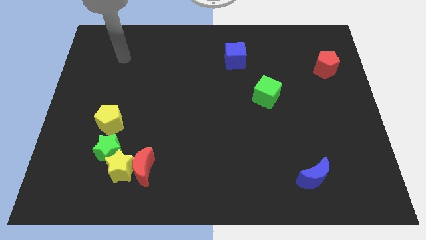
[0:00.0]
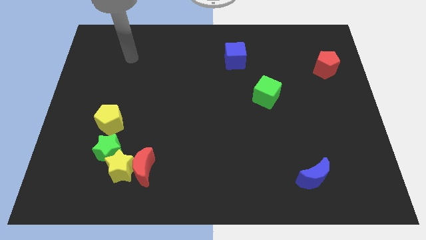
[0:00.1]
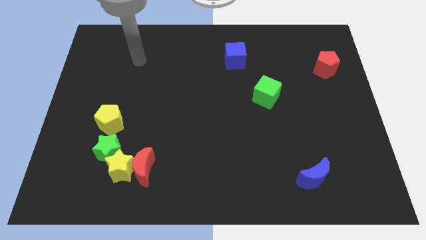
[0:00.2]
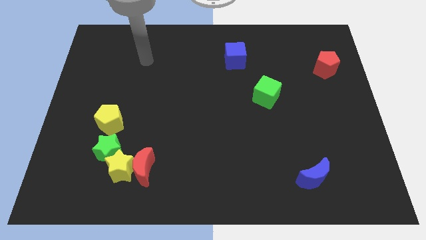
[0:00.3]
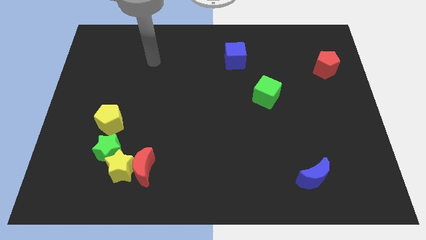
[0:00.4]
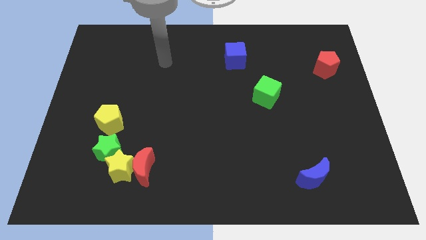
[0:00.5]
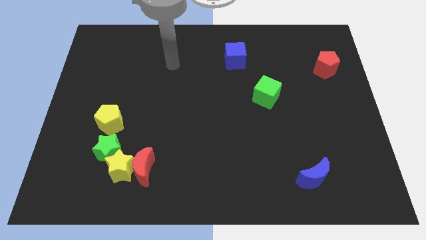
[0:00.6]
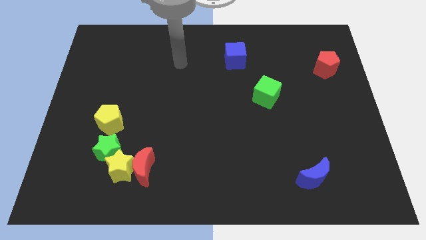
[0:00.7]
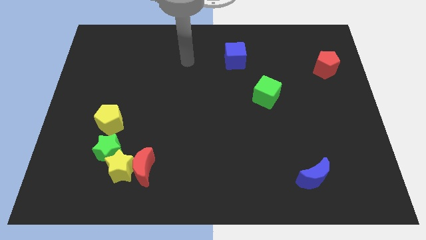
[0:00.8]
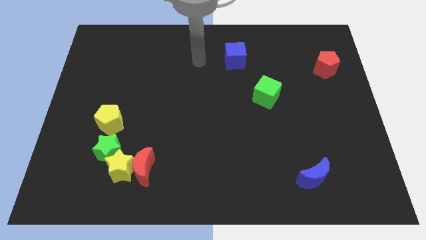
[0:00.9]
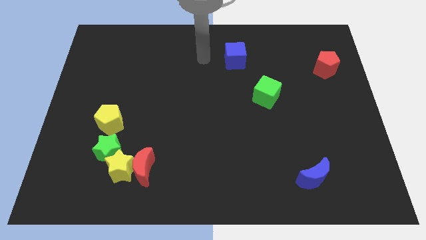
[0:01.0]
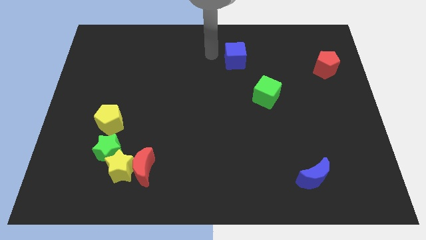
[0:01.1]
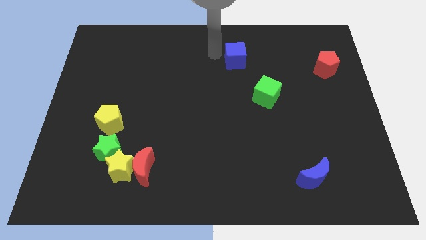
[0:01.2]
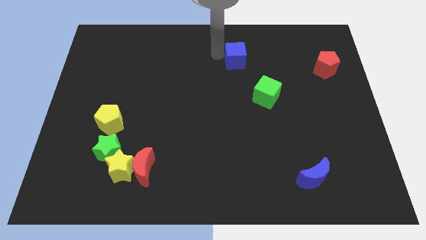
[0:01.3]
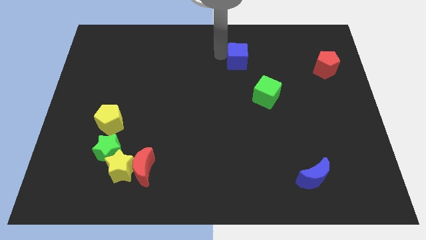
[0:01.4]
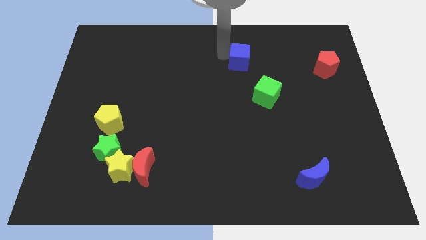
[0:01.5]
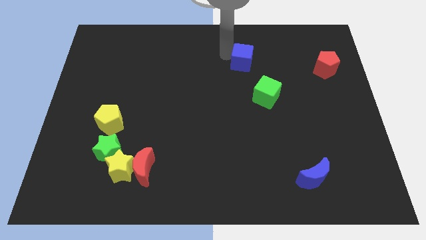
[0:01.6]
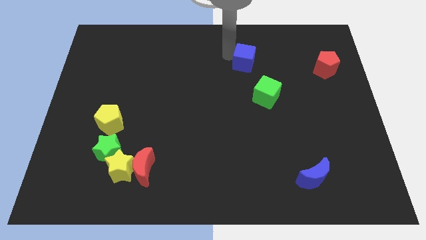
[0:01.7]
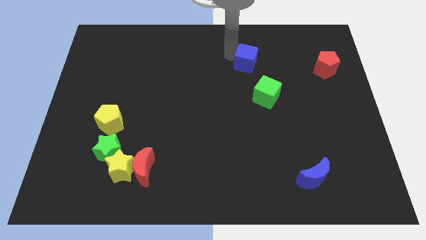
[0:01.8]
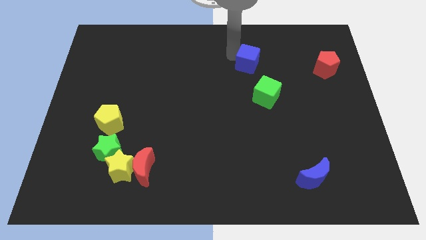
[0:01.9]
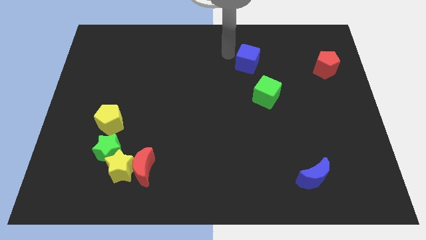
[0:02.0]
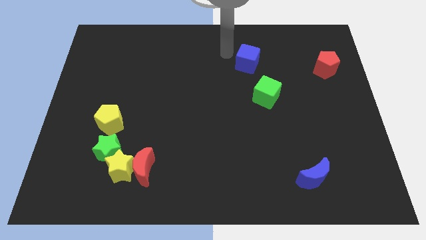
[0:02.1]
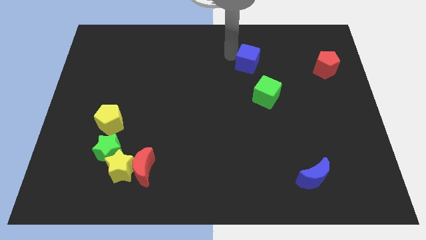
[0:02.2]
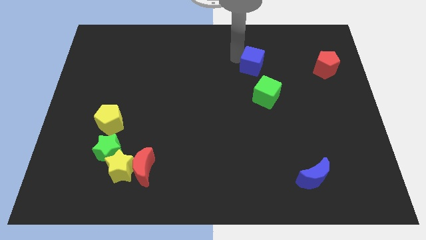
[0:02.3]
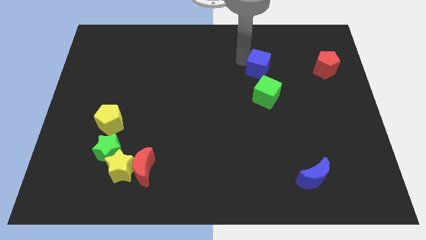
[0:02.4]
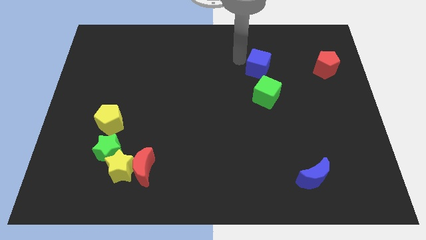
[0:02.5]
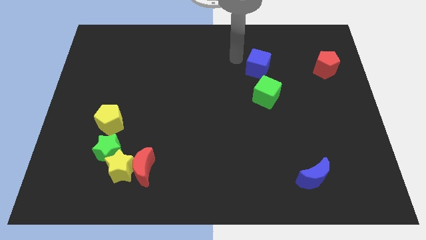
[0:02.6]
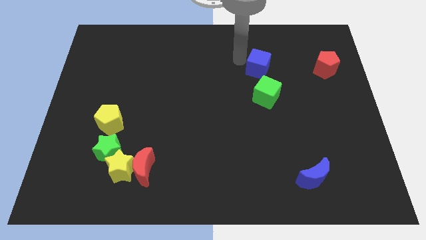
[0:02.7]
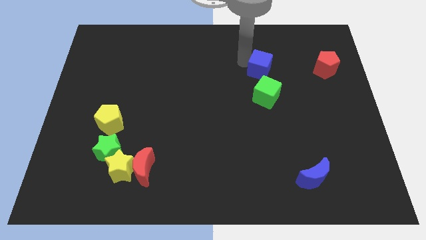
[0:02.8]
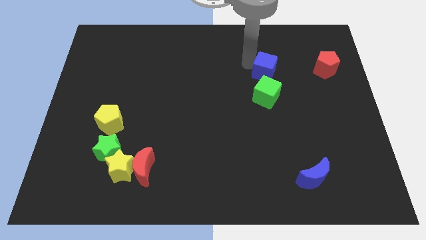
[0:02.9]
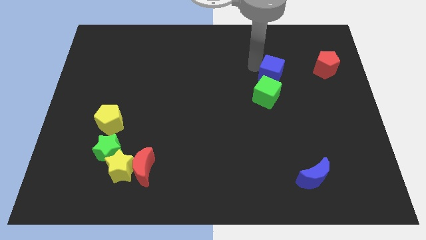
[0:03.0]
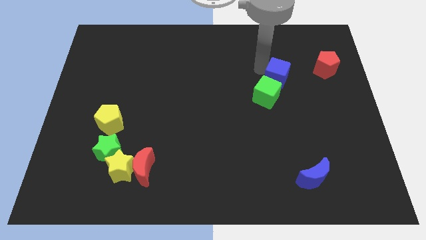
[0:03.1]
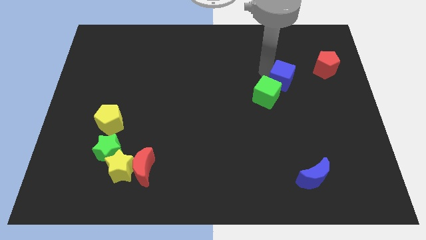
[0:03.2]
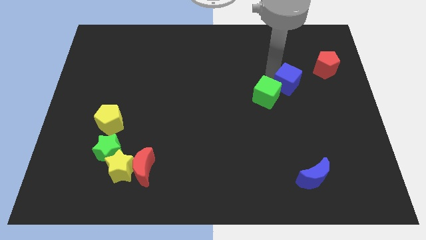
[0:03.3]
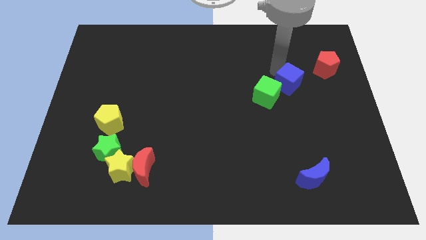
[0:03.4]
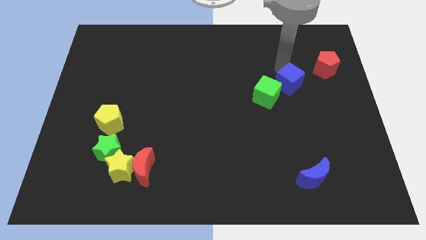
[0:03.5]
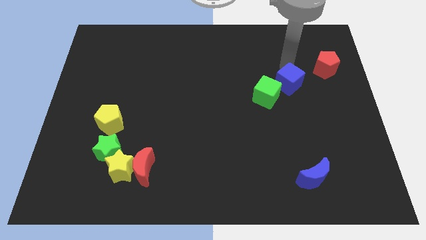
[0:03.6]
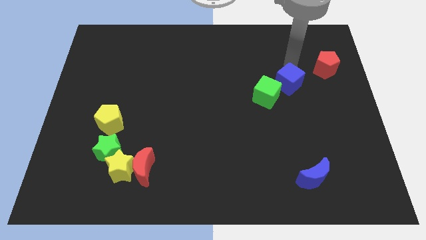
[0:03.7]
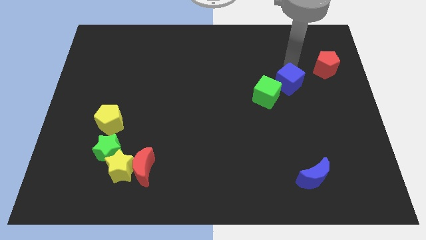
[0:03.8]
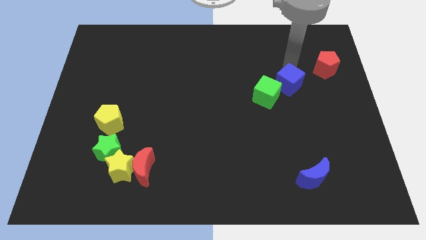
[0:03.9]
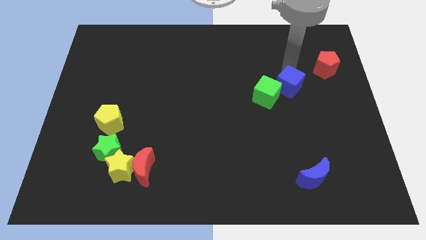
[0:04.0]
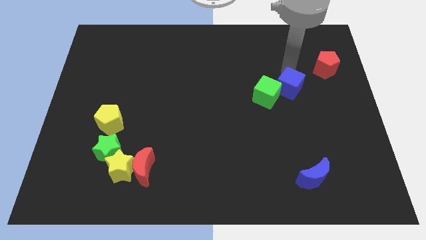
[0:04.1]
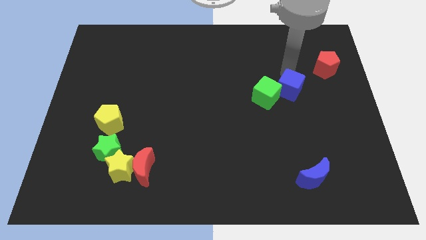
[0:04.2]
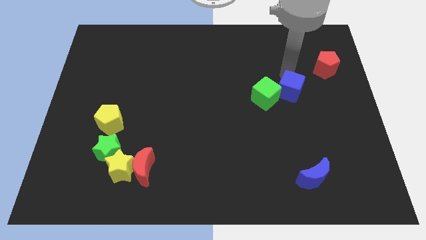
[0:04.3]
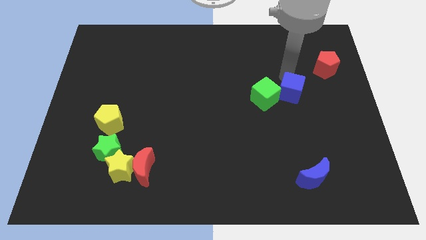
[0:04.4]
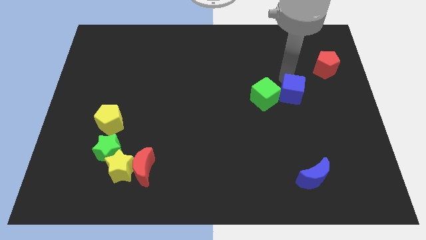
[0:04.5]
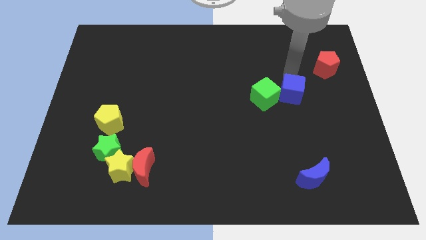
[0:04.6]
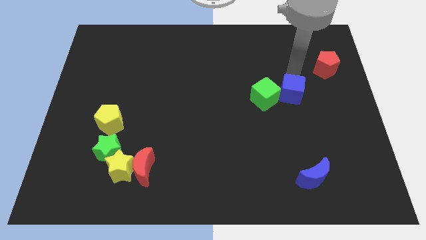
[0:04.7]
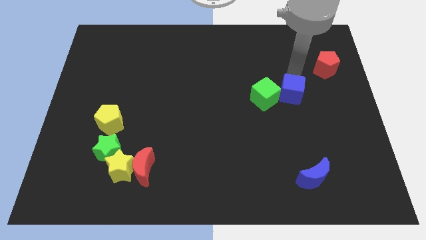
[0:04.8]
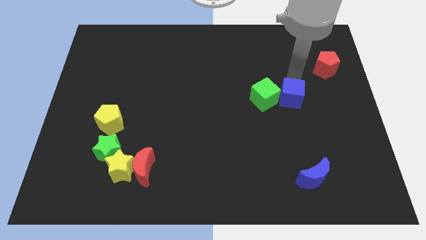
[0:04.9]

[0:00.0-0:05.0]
move the blue cube to the bottom right of the green cube

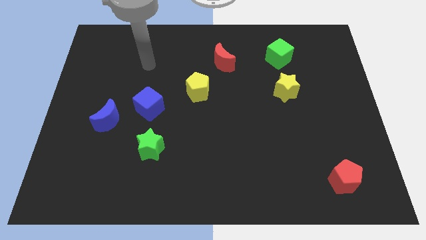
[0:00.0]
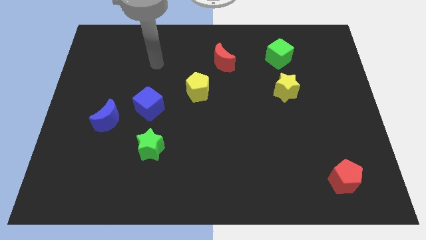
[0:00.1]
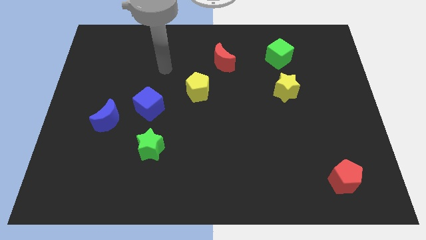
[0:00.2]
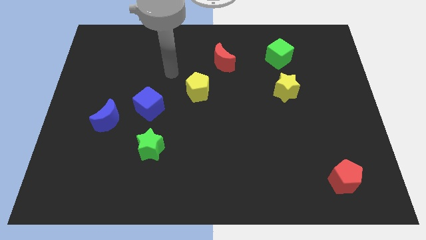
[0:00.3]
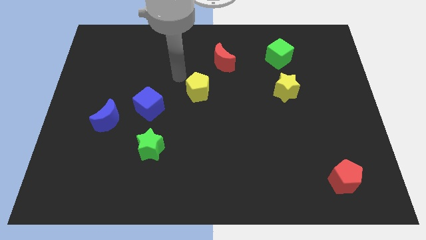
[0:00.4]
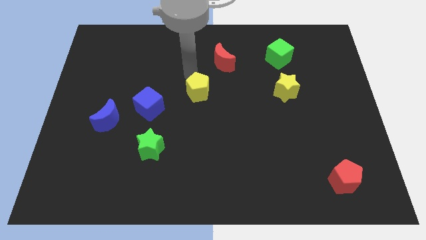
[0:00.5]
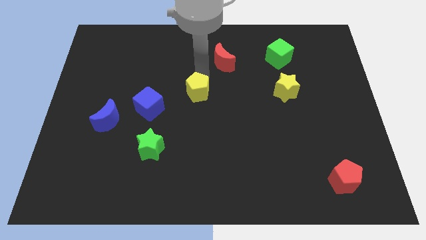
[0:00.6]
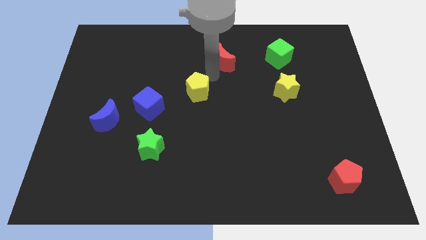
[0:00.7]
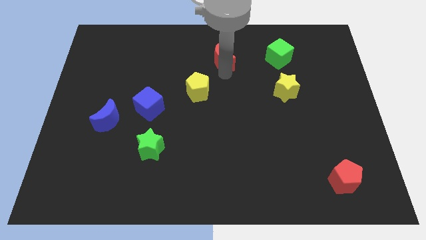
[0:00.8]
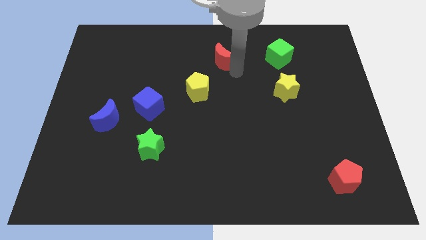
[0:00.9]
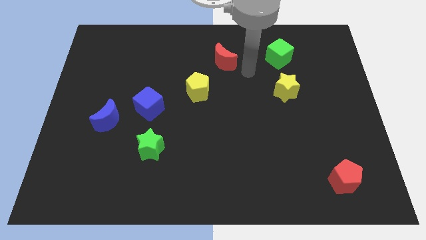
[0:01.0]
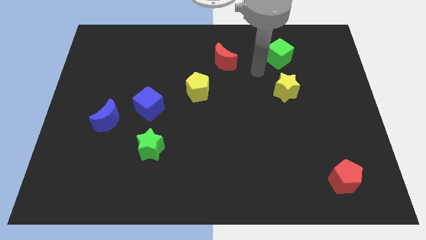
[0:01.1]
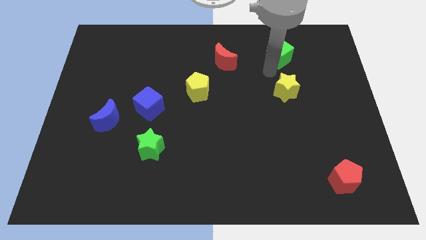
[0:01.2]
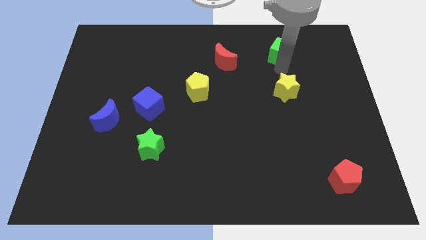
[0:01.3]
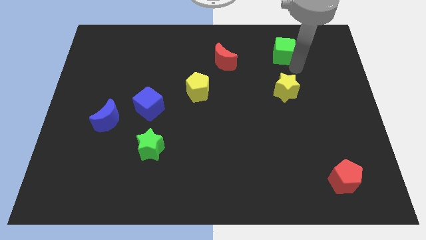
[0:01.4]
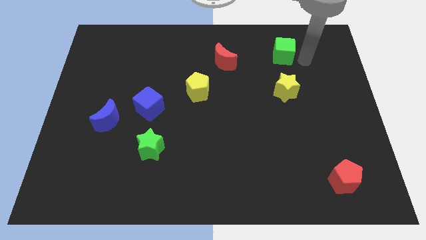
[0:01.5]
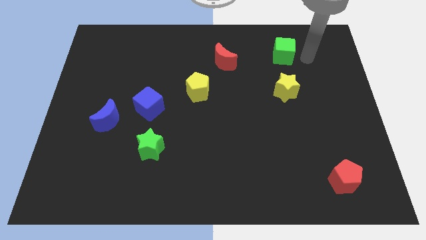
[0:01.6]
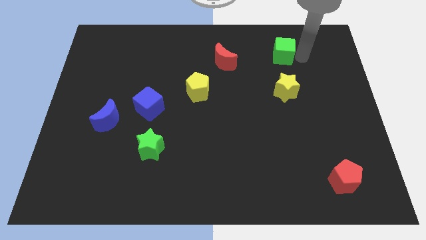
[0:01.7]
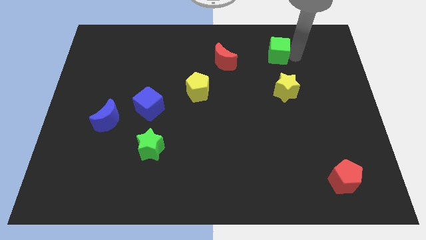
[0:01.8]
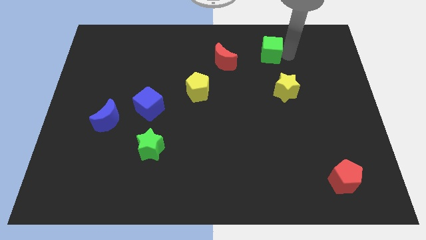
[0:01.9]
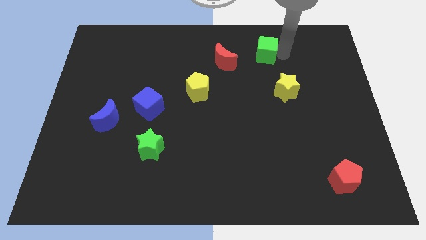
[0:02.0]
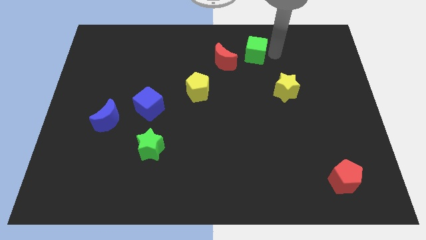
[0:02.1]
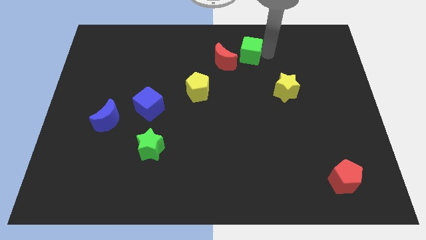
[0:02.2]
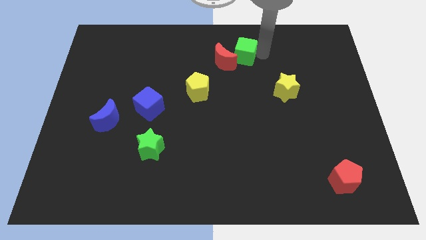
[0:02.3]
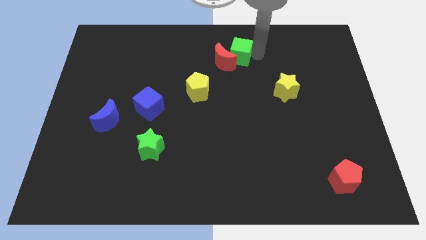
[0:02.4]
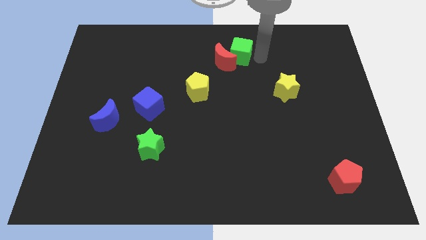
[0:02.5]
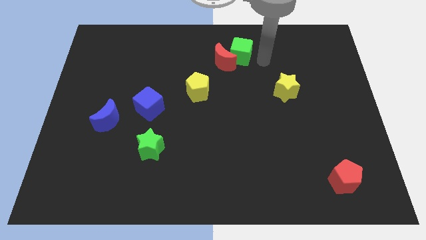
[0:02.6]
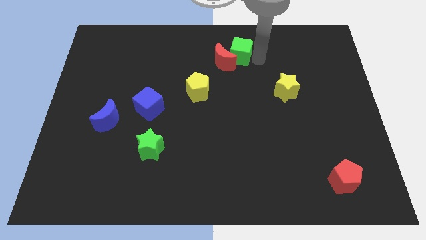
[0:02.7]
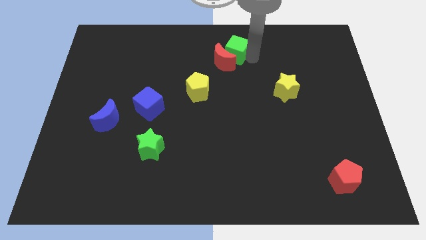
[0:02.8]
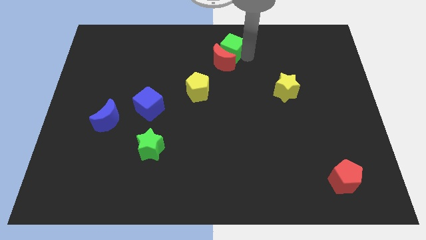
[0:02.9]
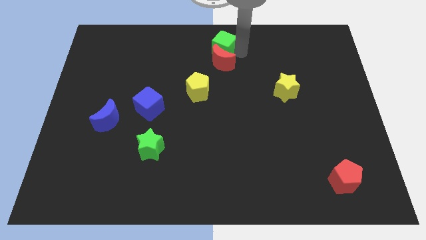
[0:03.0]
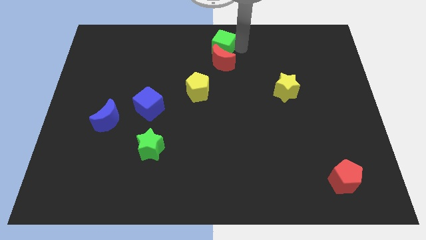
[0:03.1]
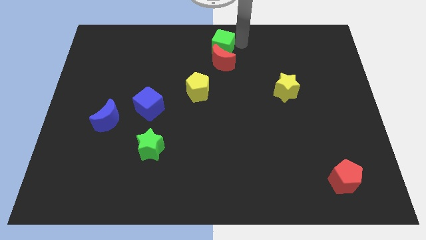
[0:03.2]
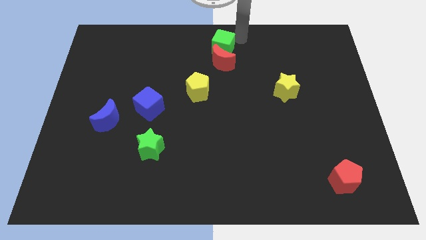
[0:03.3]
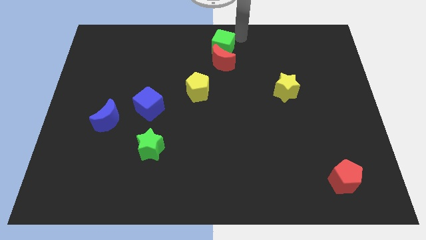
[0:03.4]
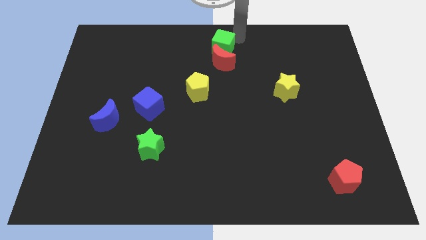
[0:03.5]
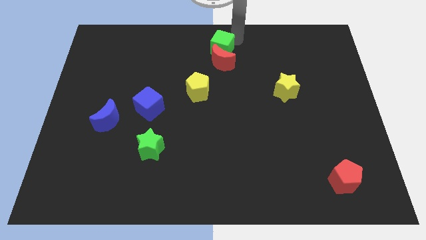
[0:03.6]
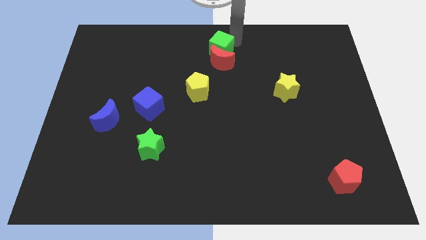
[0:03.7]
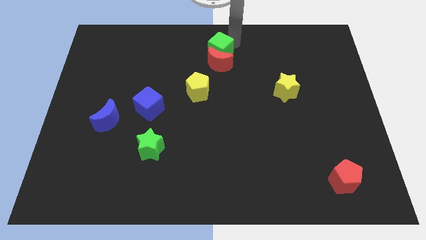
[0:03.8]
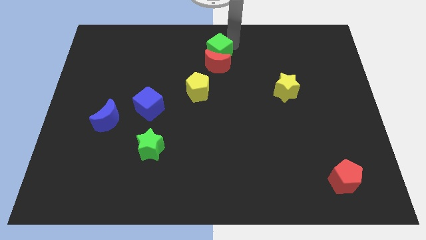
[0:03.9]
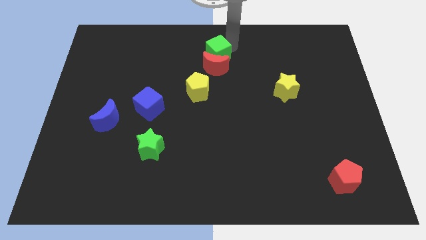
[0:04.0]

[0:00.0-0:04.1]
push the green cube to the top side of the yellow pentagon
